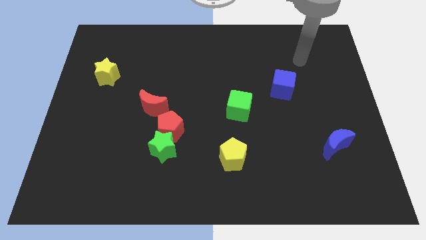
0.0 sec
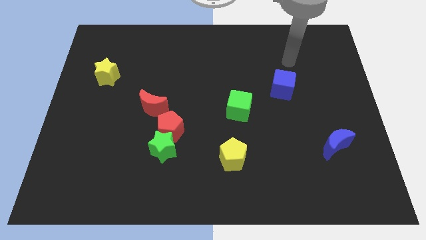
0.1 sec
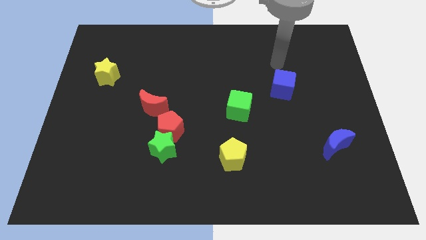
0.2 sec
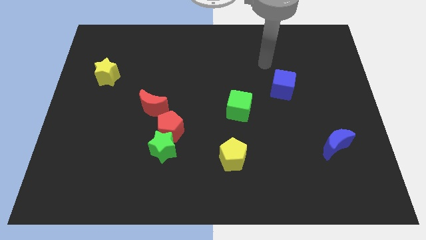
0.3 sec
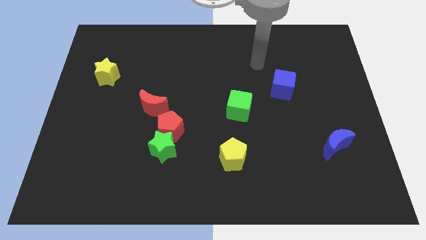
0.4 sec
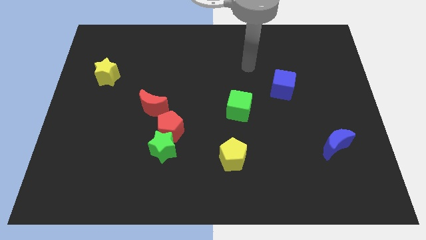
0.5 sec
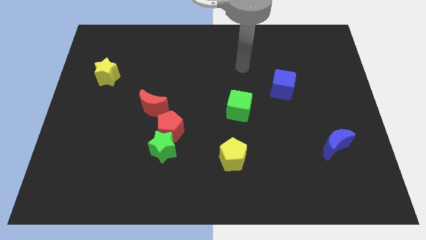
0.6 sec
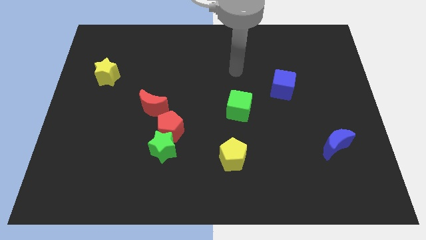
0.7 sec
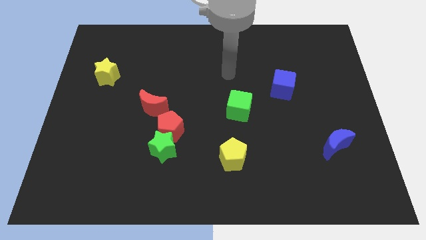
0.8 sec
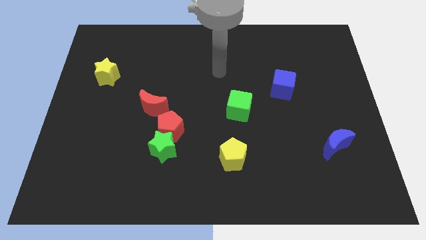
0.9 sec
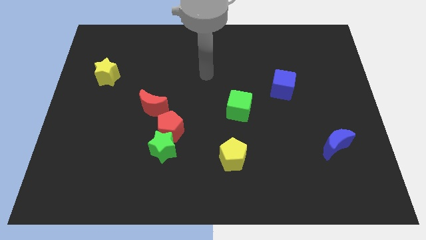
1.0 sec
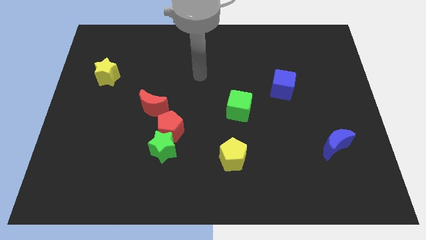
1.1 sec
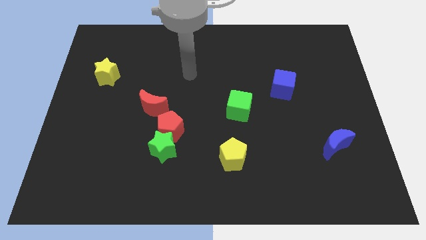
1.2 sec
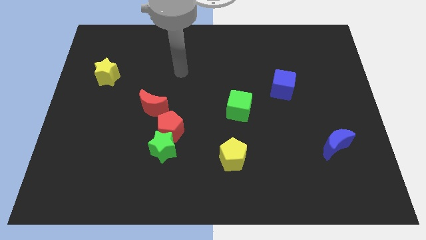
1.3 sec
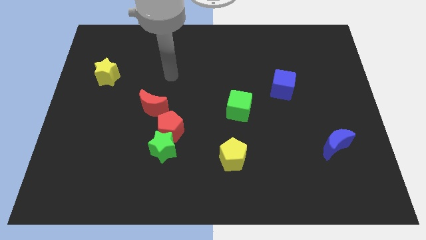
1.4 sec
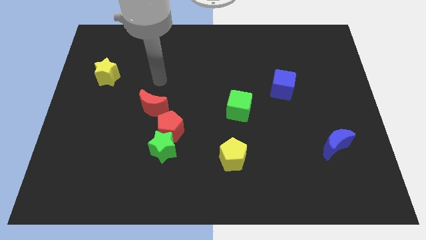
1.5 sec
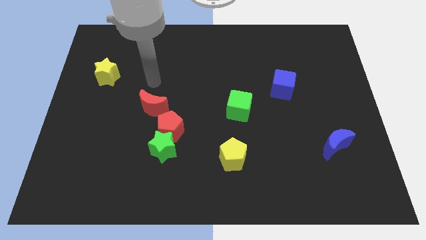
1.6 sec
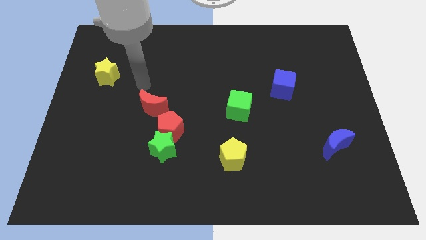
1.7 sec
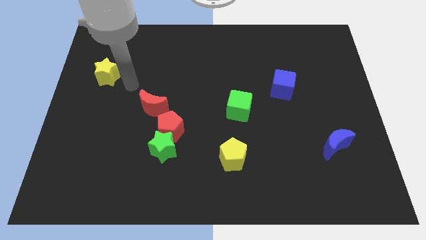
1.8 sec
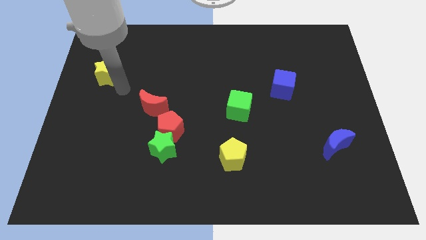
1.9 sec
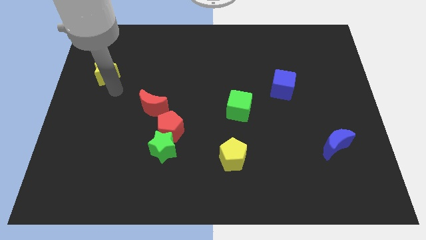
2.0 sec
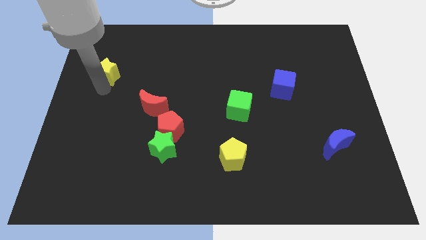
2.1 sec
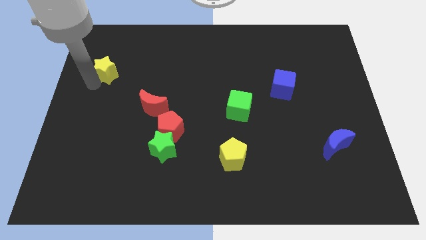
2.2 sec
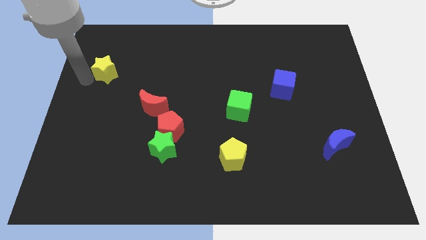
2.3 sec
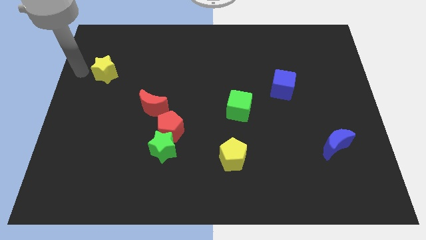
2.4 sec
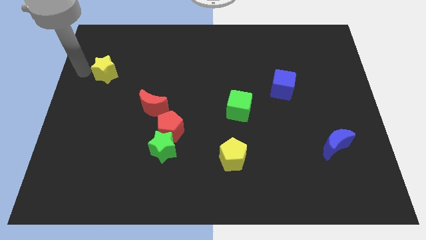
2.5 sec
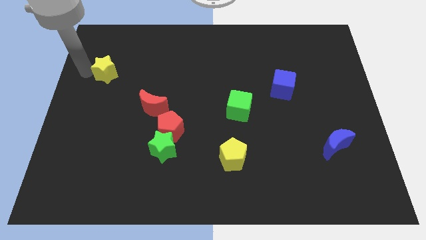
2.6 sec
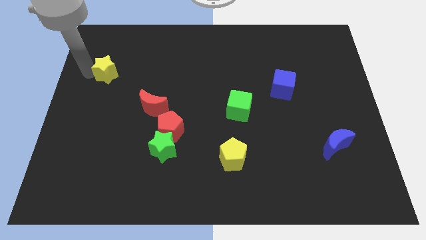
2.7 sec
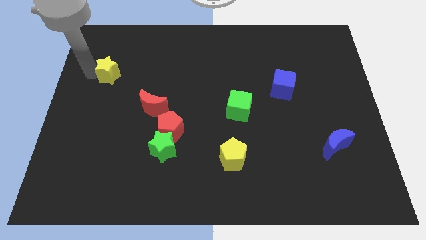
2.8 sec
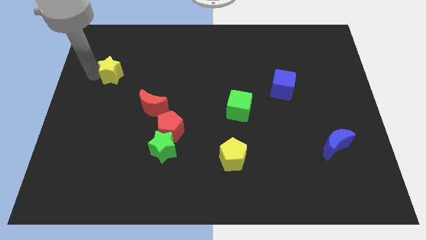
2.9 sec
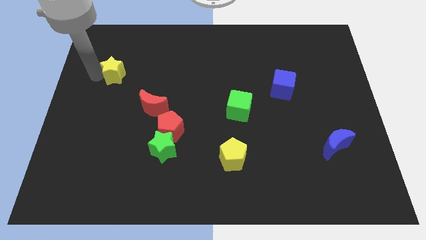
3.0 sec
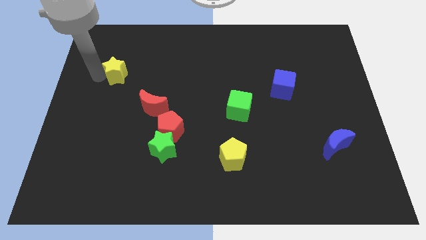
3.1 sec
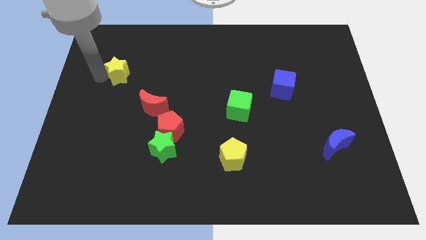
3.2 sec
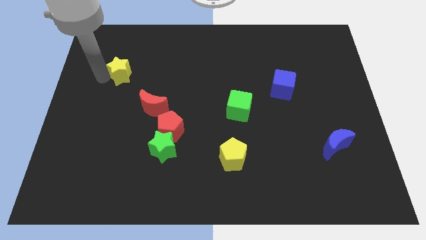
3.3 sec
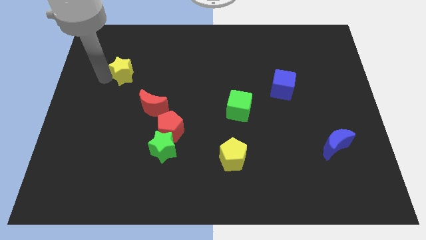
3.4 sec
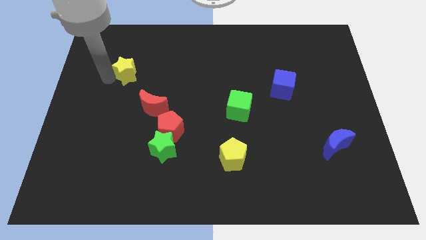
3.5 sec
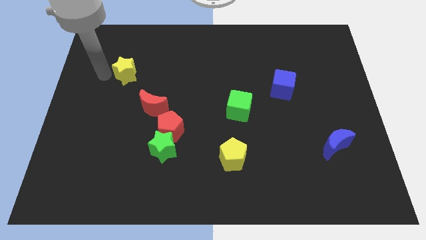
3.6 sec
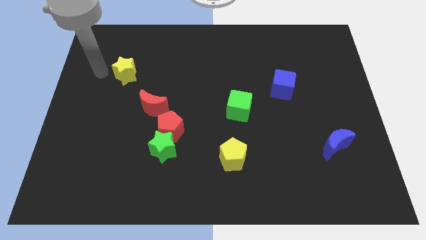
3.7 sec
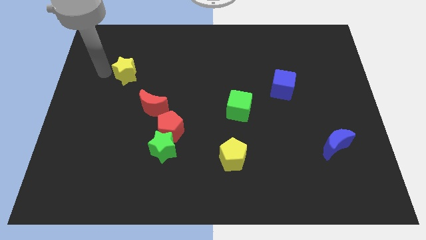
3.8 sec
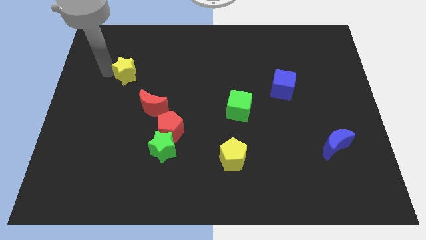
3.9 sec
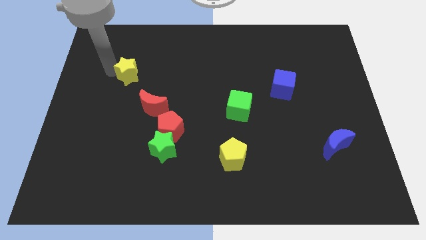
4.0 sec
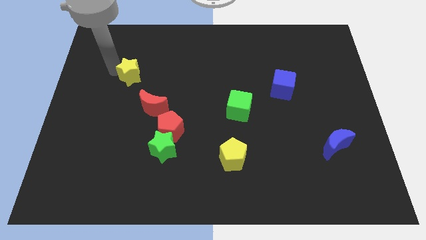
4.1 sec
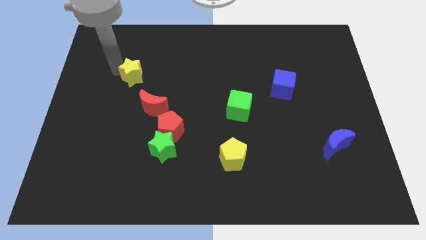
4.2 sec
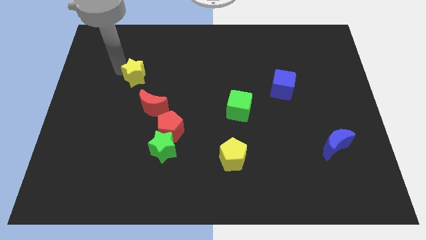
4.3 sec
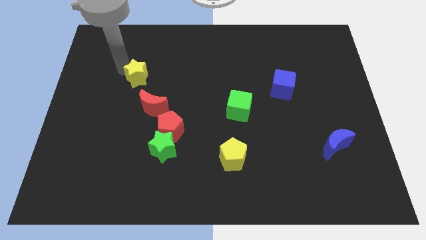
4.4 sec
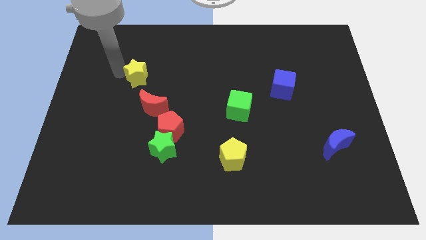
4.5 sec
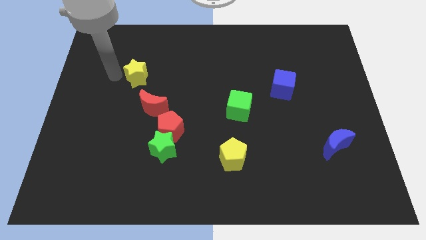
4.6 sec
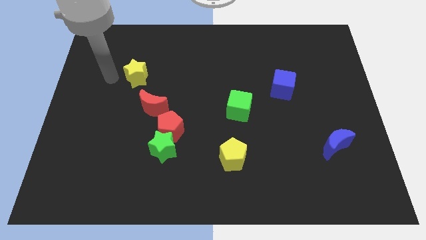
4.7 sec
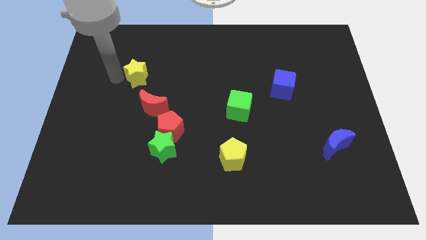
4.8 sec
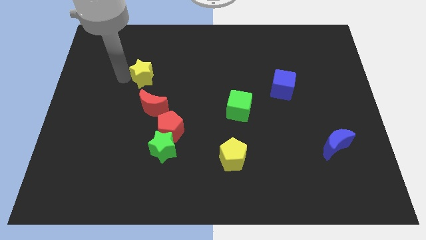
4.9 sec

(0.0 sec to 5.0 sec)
put the yellow star above the red moon

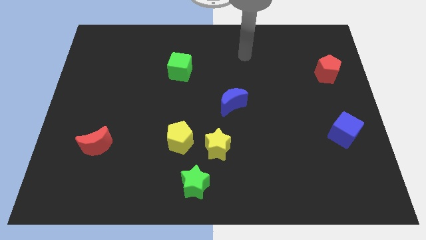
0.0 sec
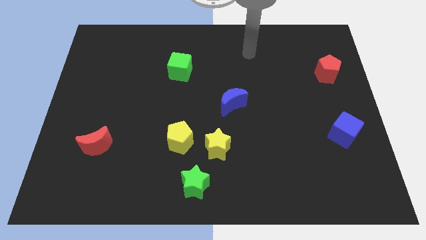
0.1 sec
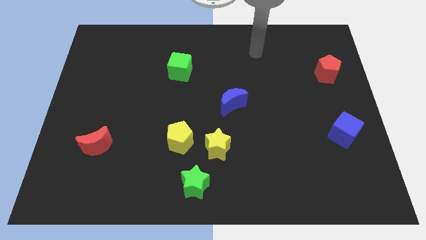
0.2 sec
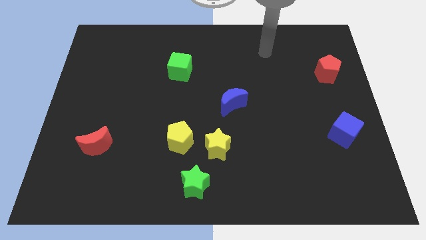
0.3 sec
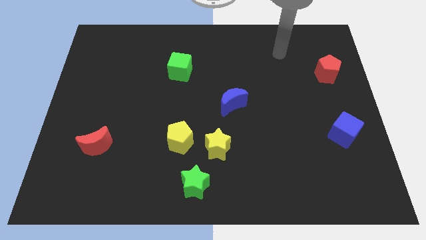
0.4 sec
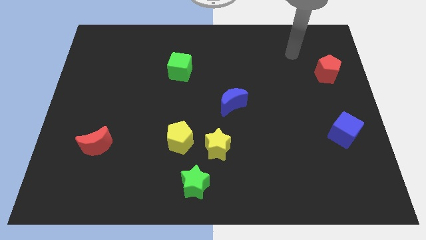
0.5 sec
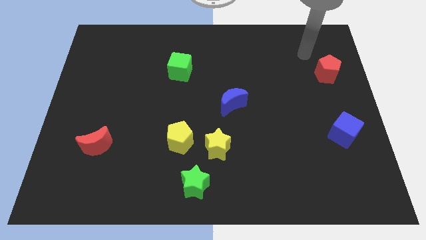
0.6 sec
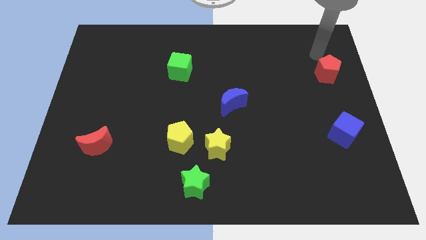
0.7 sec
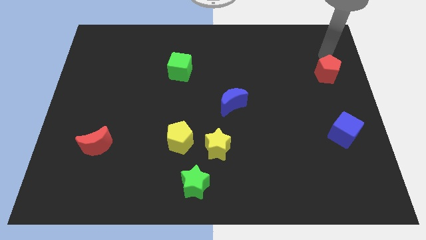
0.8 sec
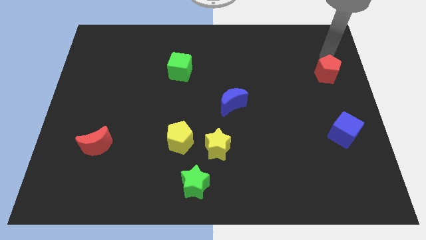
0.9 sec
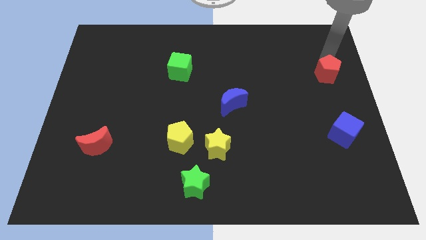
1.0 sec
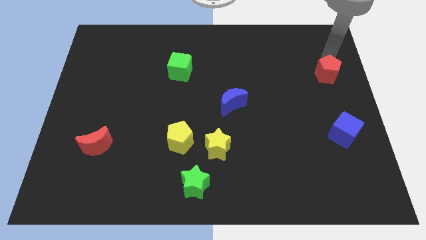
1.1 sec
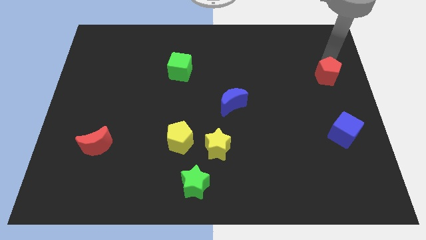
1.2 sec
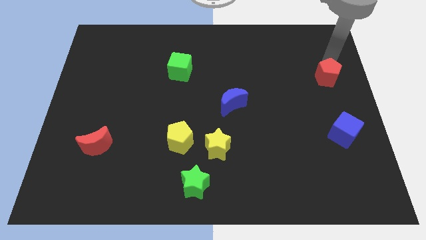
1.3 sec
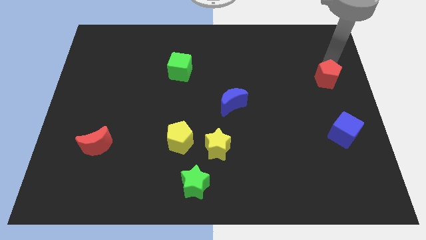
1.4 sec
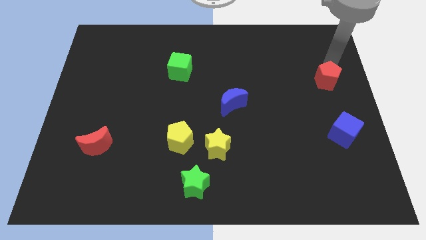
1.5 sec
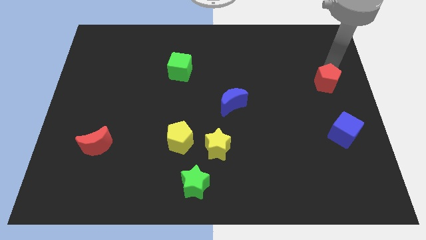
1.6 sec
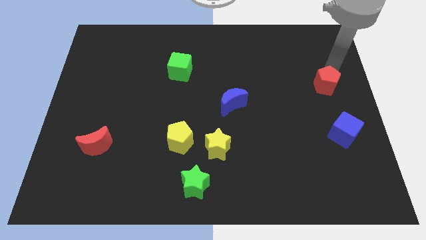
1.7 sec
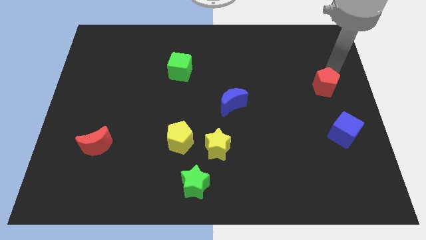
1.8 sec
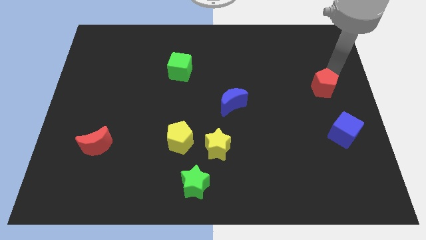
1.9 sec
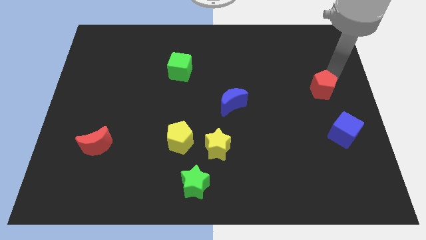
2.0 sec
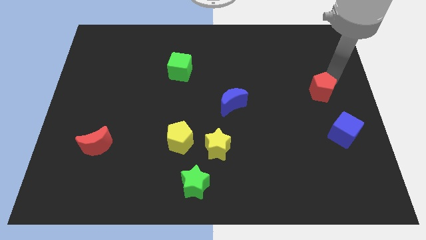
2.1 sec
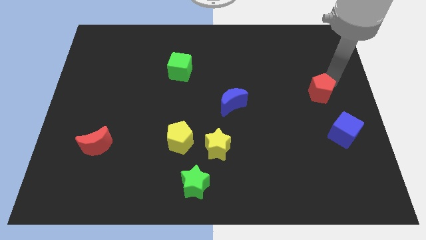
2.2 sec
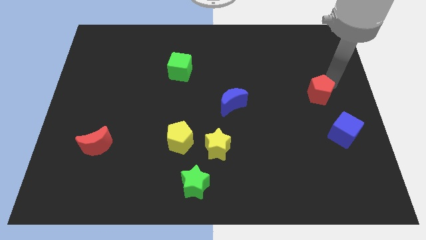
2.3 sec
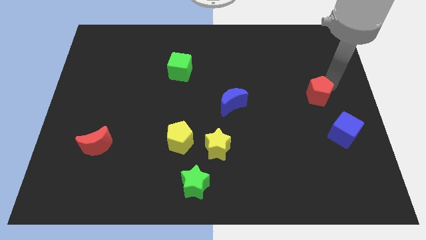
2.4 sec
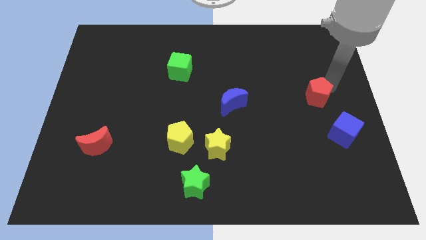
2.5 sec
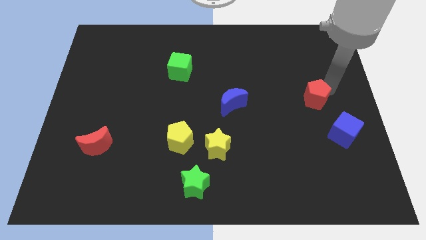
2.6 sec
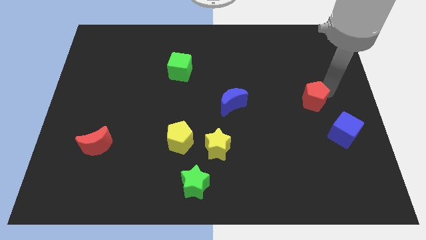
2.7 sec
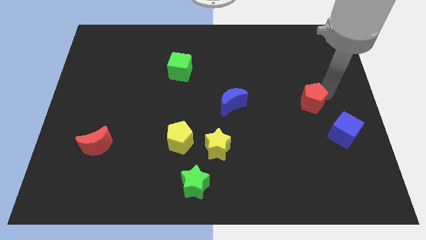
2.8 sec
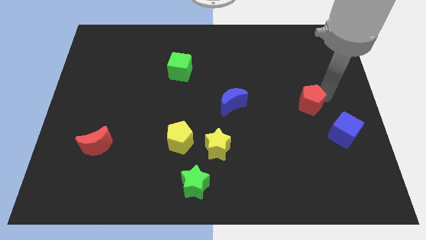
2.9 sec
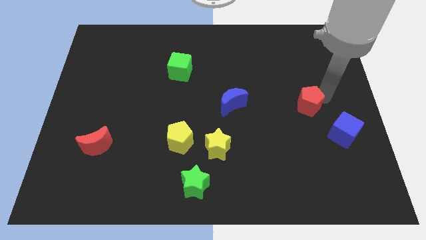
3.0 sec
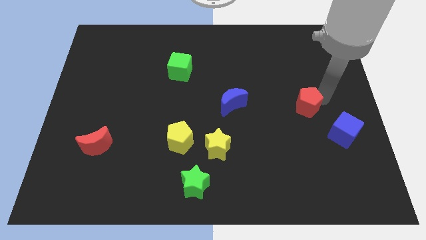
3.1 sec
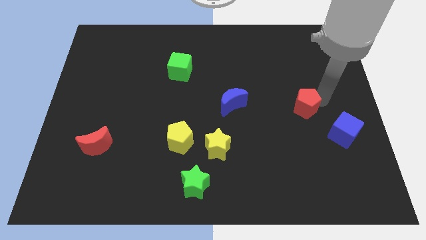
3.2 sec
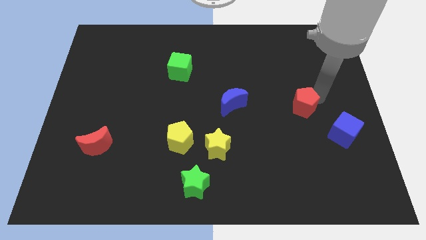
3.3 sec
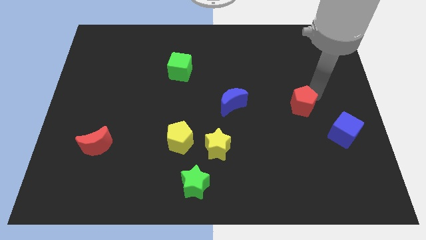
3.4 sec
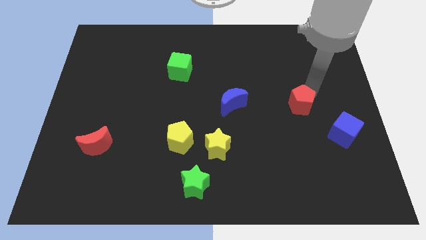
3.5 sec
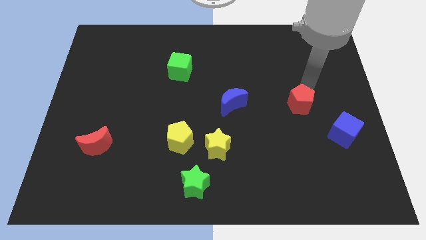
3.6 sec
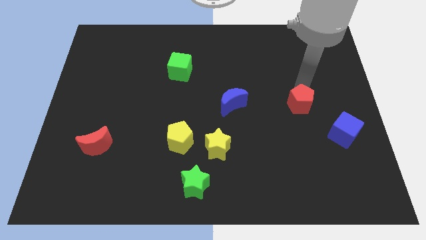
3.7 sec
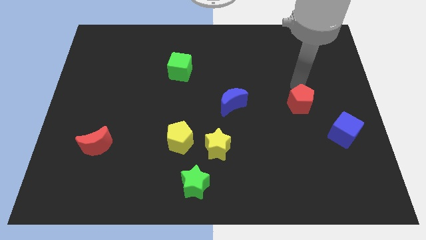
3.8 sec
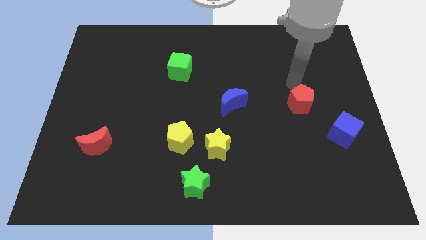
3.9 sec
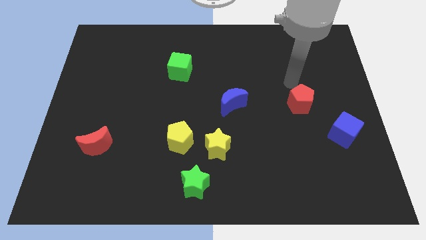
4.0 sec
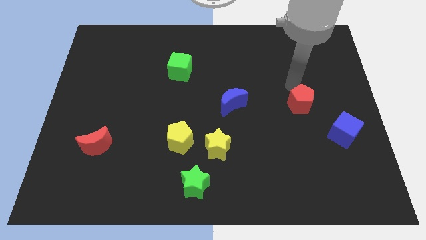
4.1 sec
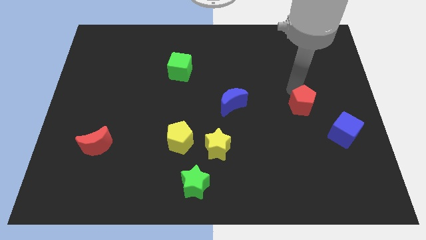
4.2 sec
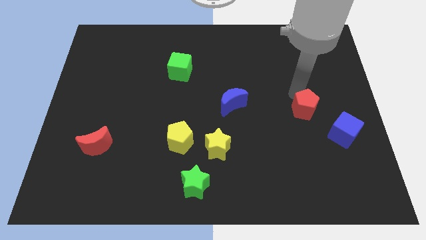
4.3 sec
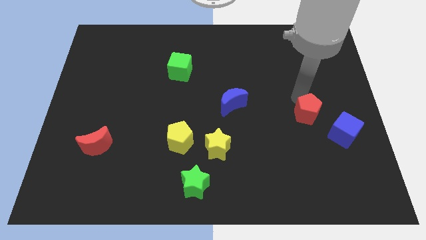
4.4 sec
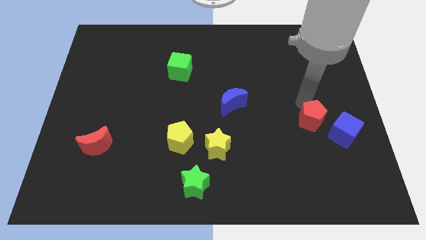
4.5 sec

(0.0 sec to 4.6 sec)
push the red pentagon to the left side of the blue cube
